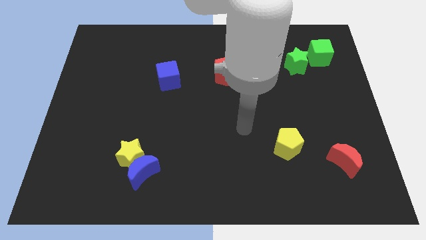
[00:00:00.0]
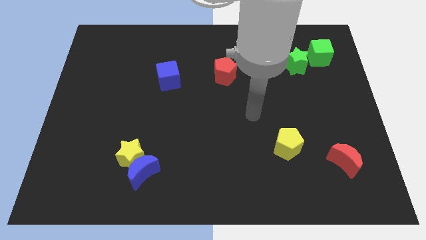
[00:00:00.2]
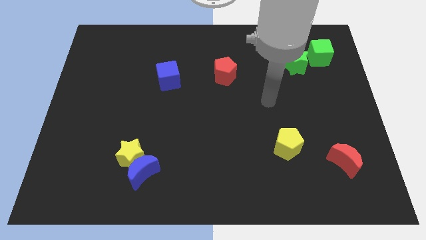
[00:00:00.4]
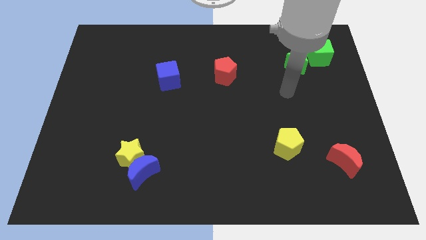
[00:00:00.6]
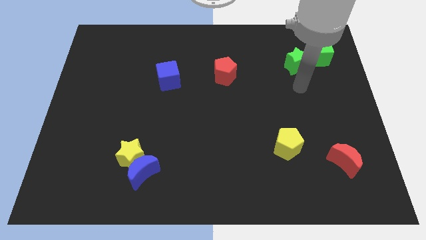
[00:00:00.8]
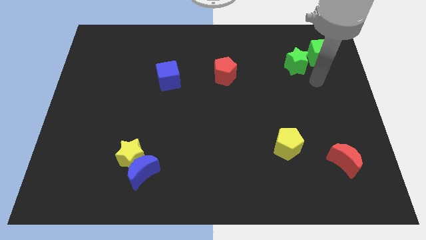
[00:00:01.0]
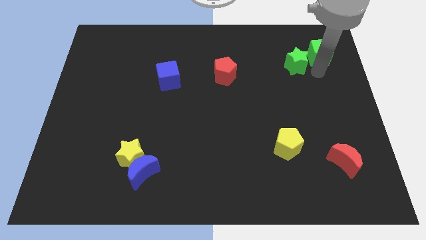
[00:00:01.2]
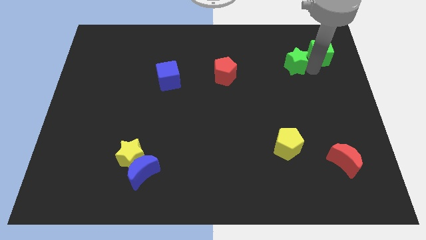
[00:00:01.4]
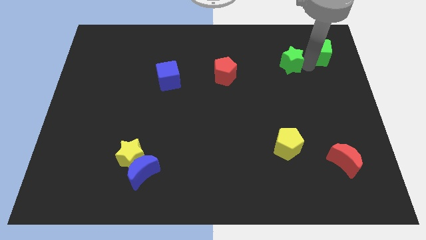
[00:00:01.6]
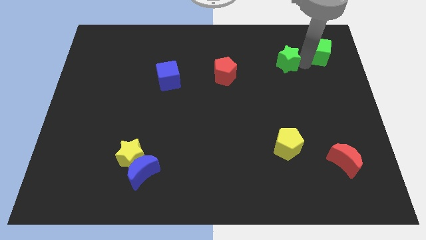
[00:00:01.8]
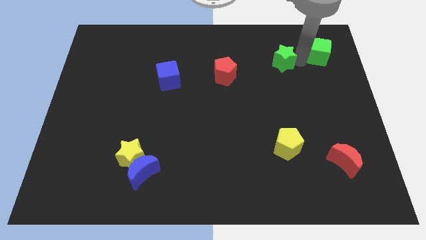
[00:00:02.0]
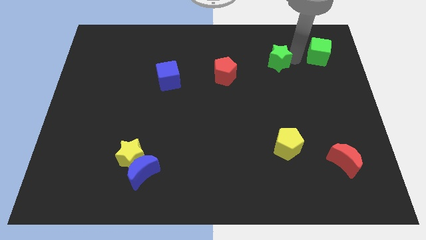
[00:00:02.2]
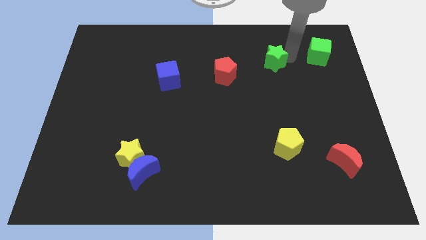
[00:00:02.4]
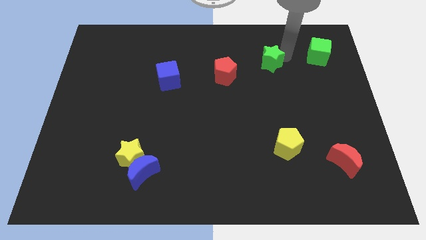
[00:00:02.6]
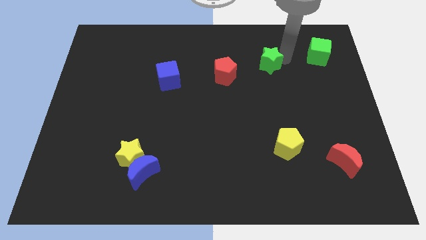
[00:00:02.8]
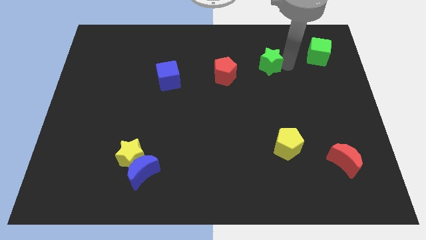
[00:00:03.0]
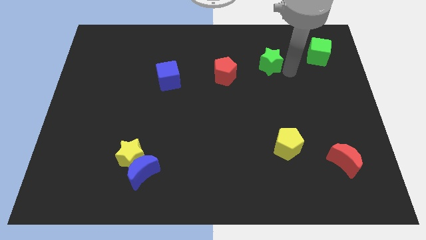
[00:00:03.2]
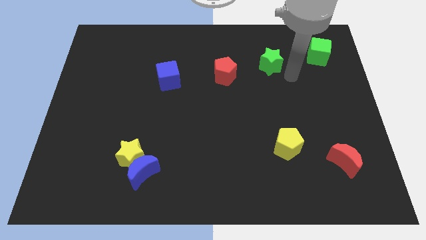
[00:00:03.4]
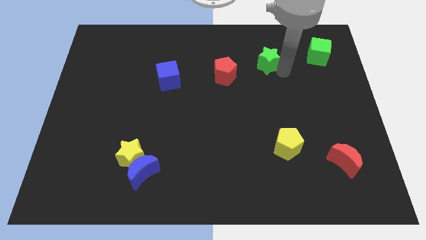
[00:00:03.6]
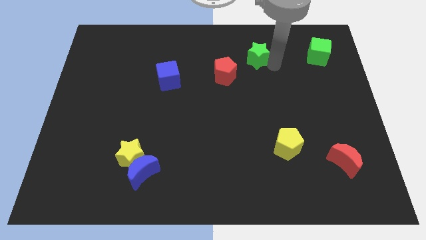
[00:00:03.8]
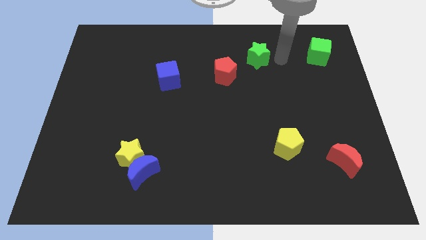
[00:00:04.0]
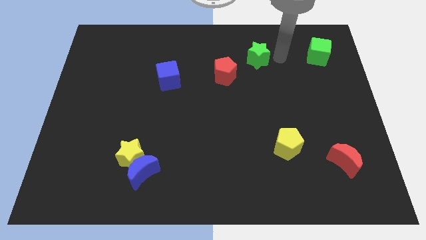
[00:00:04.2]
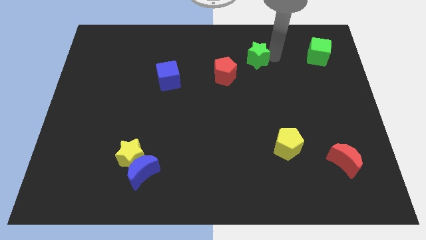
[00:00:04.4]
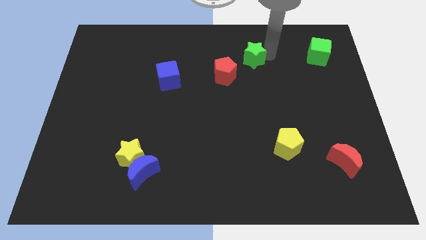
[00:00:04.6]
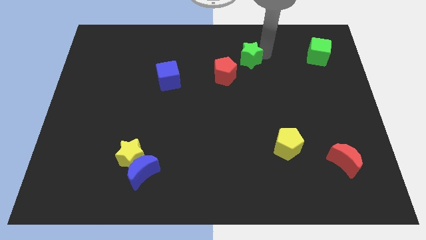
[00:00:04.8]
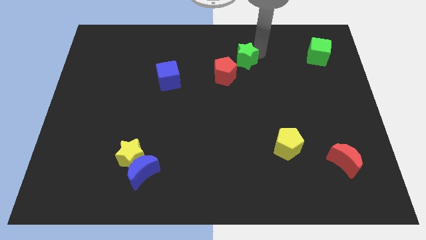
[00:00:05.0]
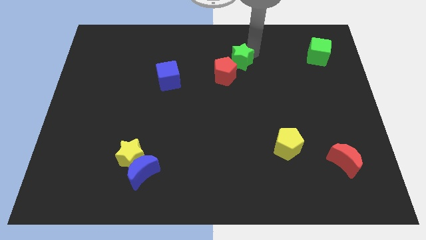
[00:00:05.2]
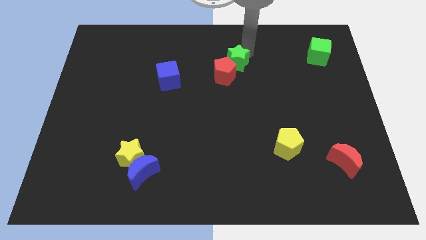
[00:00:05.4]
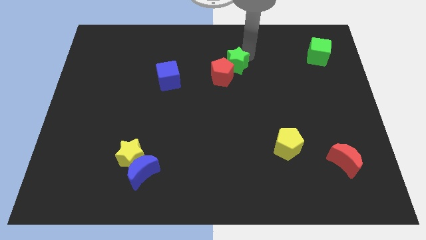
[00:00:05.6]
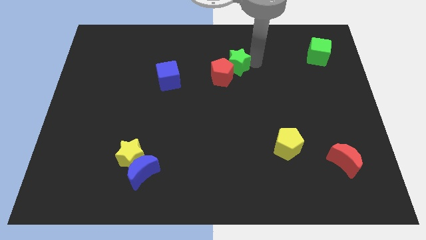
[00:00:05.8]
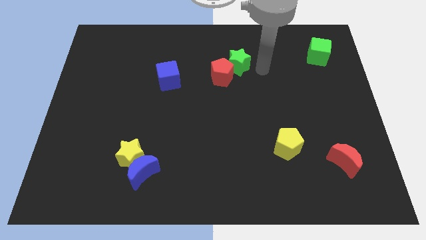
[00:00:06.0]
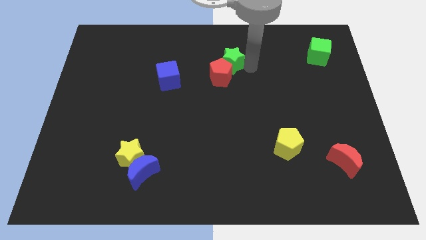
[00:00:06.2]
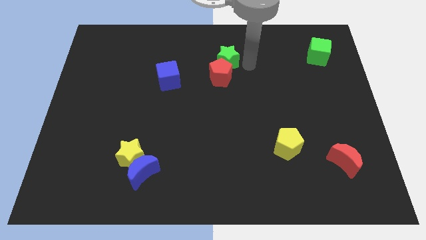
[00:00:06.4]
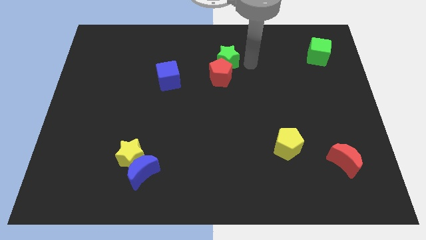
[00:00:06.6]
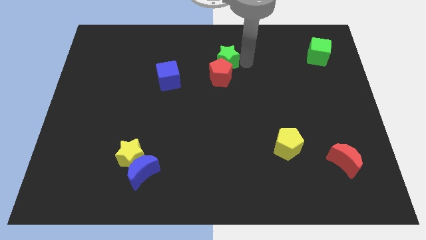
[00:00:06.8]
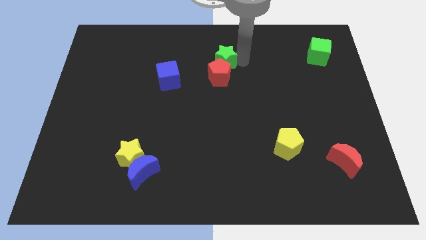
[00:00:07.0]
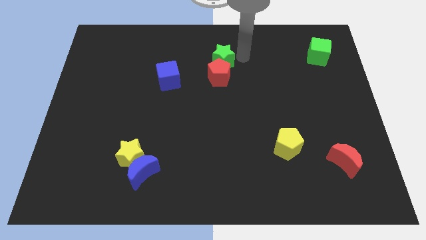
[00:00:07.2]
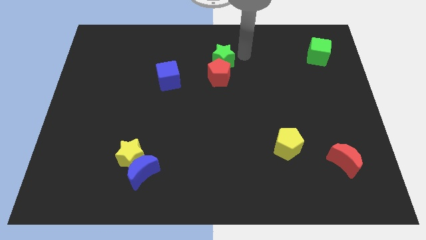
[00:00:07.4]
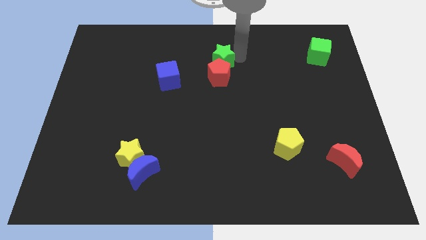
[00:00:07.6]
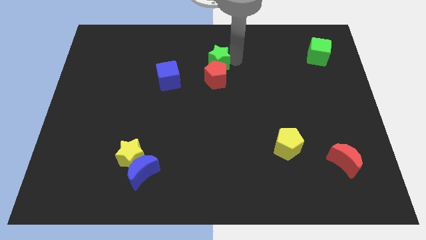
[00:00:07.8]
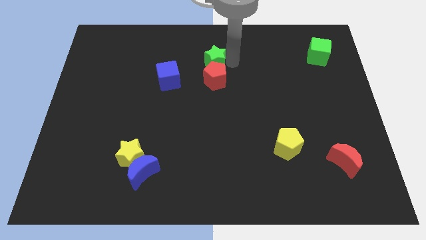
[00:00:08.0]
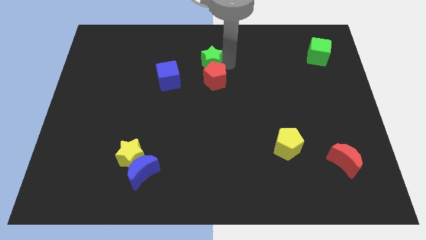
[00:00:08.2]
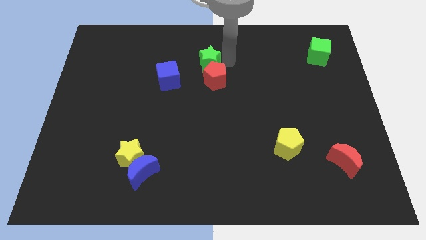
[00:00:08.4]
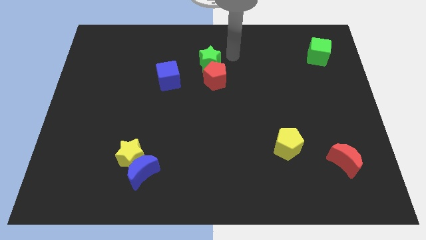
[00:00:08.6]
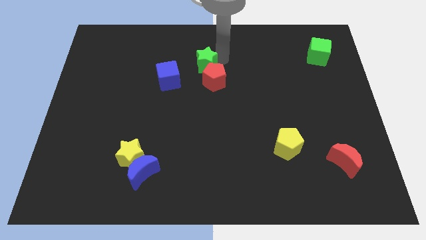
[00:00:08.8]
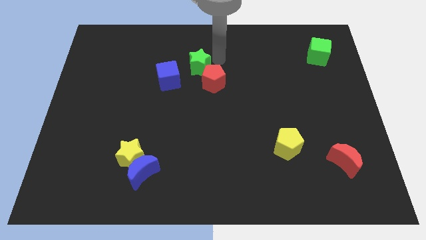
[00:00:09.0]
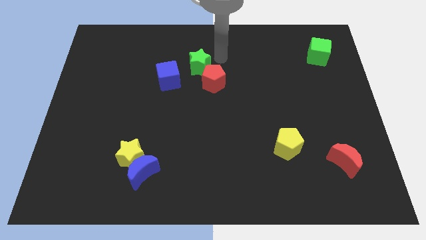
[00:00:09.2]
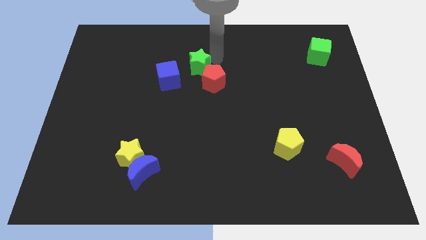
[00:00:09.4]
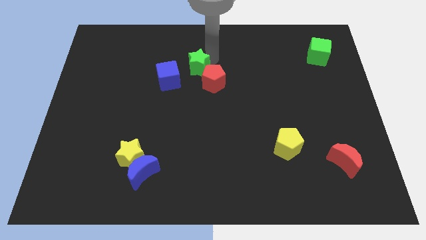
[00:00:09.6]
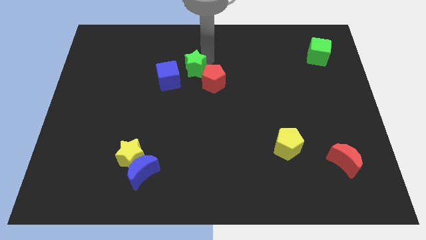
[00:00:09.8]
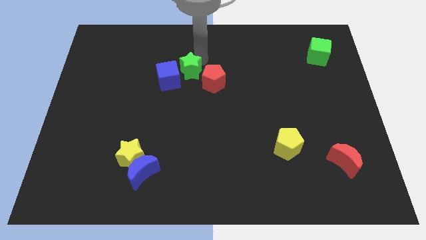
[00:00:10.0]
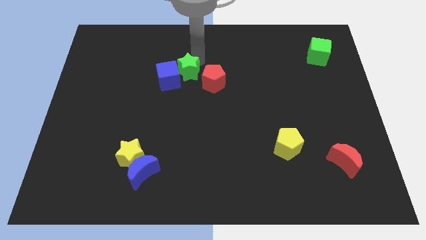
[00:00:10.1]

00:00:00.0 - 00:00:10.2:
put the green star to the blue cube

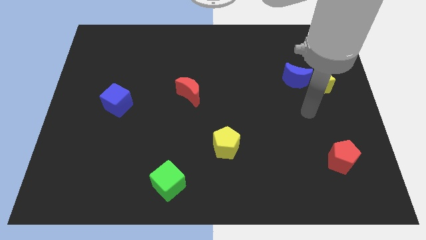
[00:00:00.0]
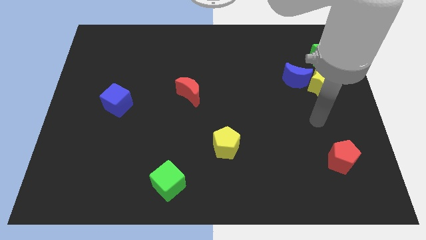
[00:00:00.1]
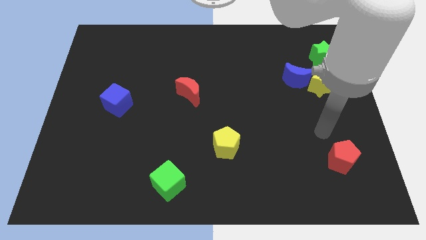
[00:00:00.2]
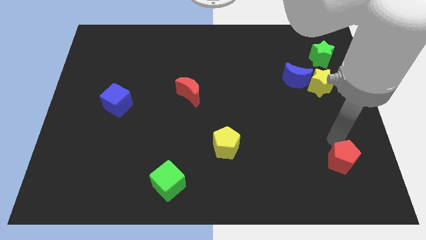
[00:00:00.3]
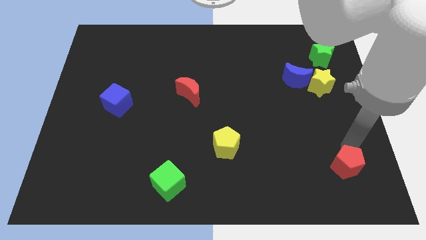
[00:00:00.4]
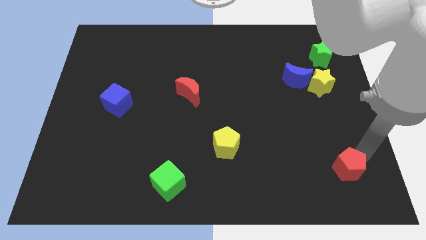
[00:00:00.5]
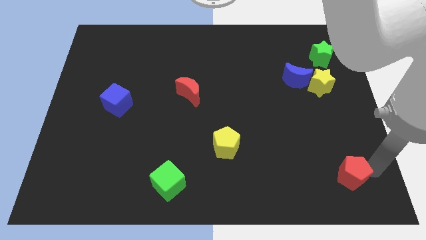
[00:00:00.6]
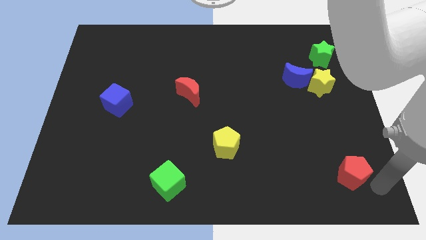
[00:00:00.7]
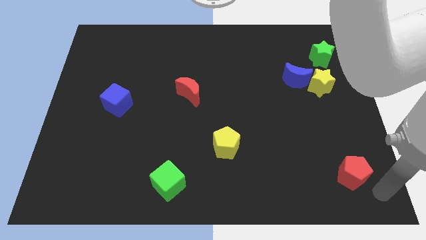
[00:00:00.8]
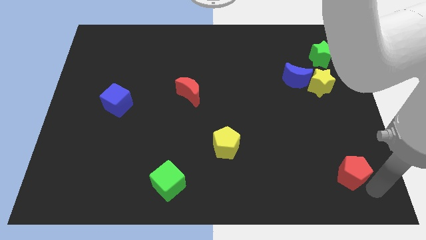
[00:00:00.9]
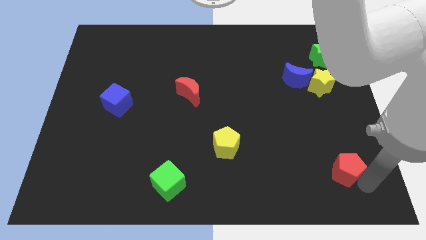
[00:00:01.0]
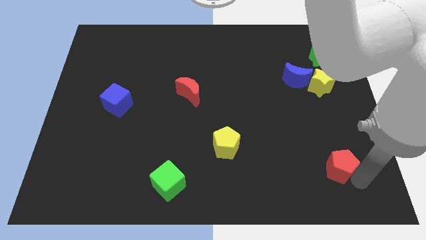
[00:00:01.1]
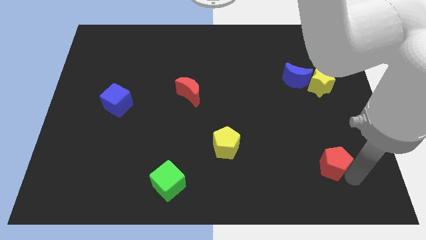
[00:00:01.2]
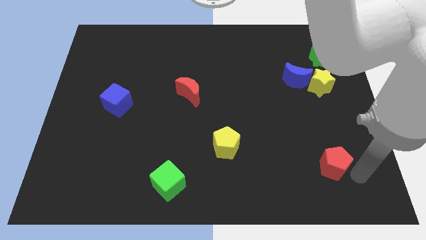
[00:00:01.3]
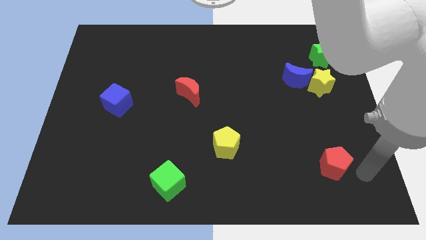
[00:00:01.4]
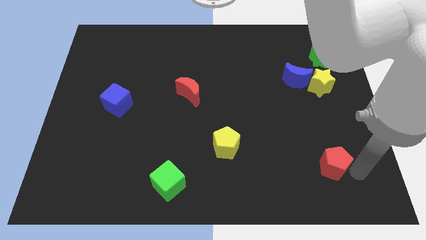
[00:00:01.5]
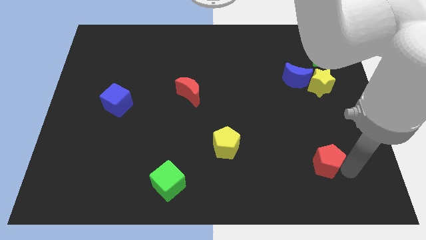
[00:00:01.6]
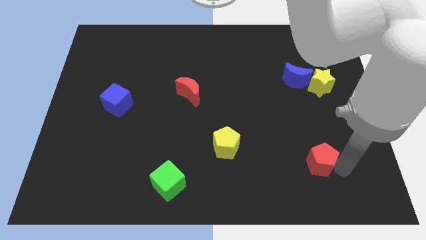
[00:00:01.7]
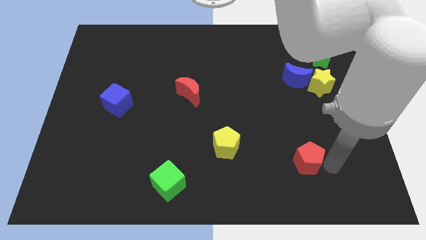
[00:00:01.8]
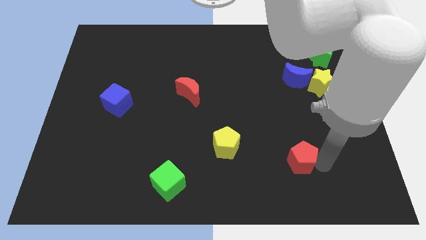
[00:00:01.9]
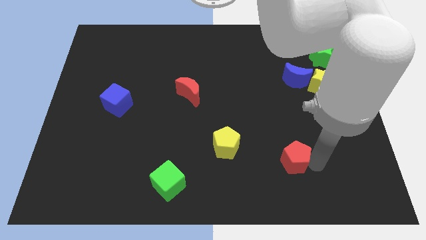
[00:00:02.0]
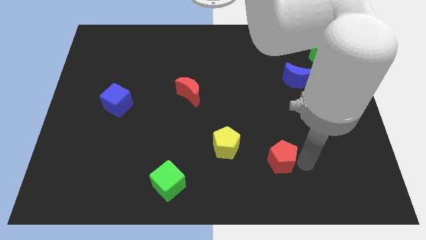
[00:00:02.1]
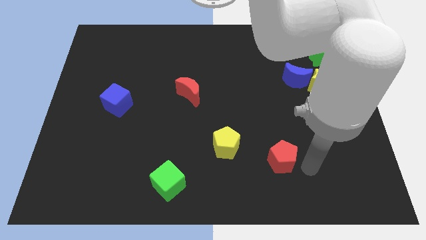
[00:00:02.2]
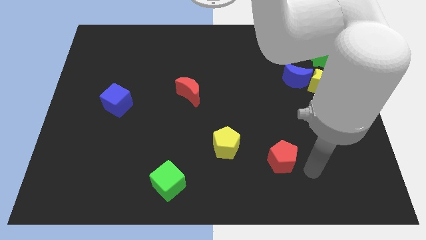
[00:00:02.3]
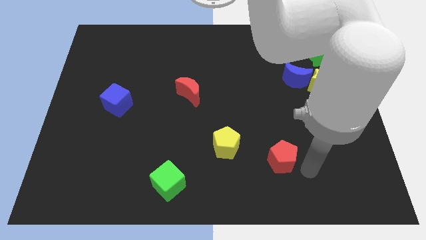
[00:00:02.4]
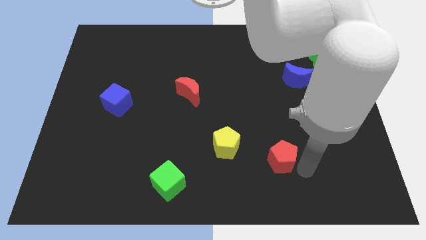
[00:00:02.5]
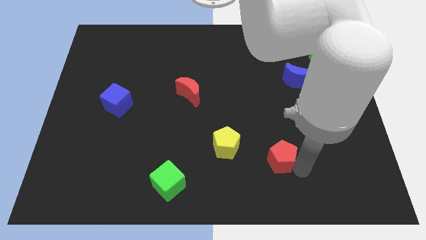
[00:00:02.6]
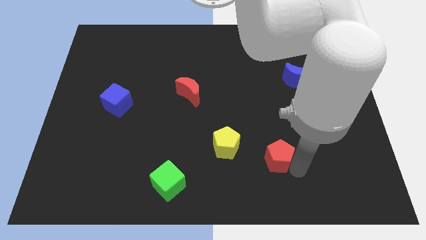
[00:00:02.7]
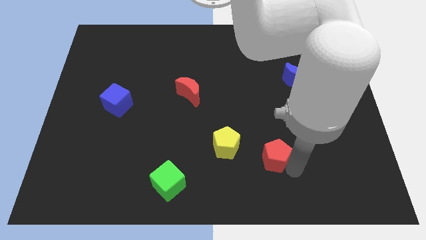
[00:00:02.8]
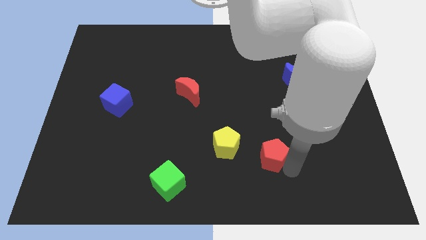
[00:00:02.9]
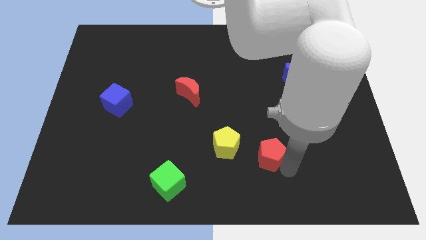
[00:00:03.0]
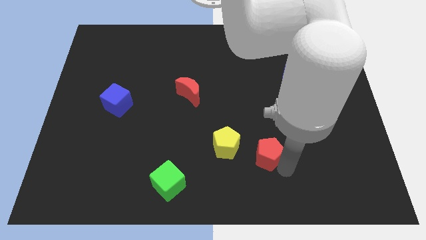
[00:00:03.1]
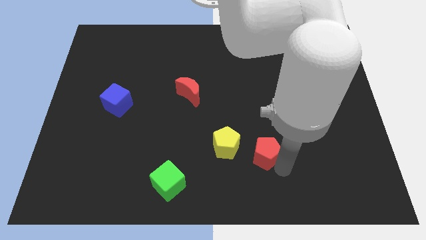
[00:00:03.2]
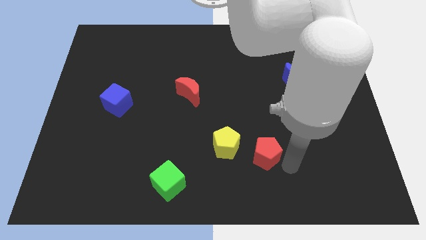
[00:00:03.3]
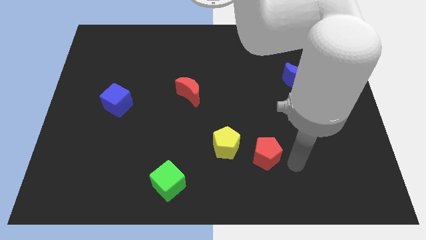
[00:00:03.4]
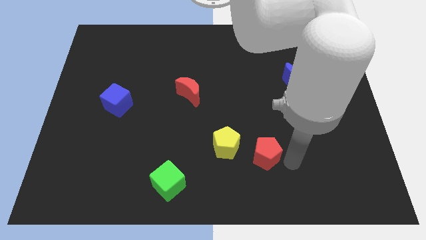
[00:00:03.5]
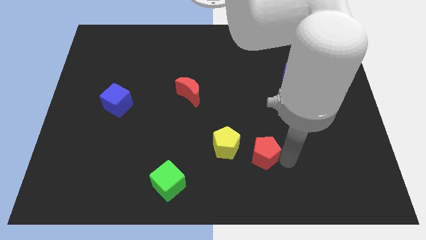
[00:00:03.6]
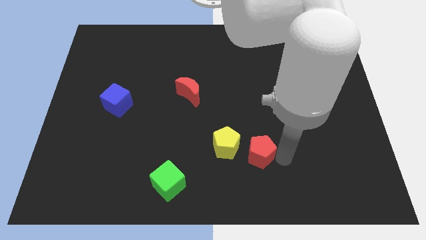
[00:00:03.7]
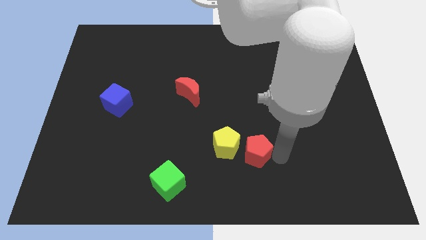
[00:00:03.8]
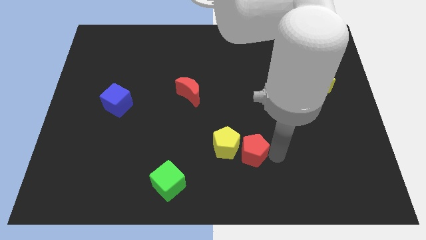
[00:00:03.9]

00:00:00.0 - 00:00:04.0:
move the red pentagon next to the yellow pentagon
